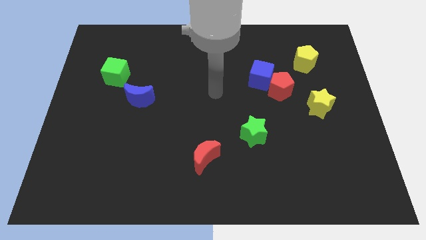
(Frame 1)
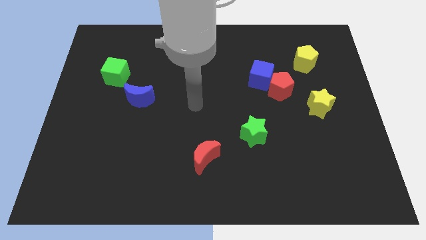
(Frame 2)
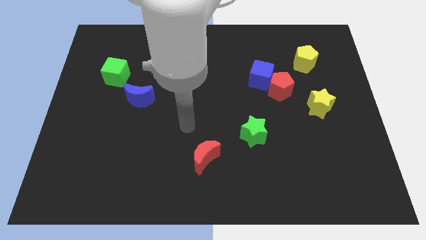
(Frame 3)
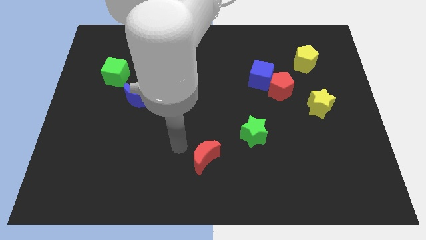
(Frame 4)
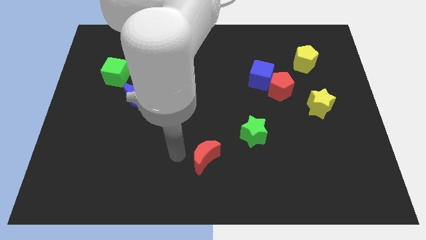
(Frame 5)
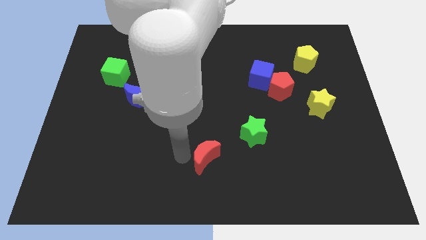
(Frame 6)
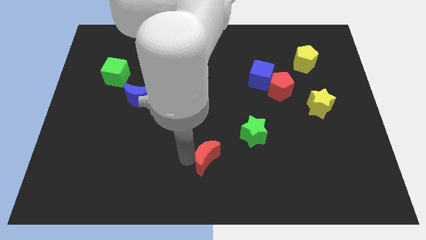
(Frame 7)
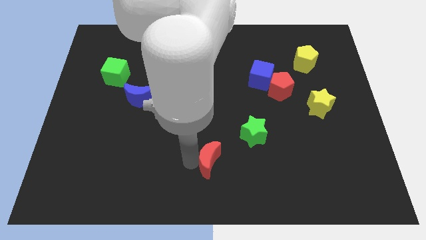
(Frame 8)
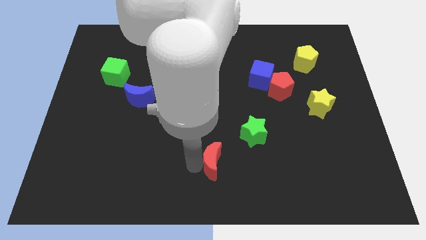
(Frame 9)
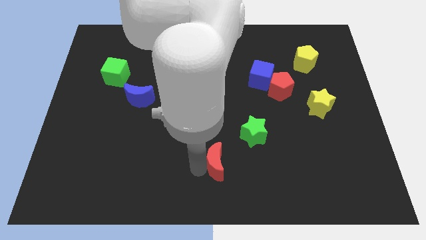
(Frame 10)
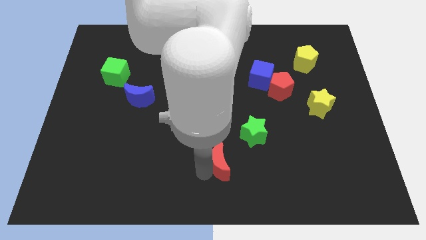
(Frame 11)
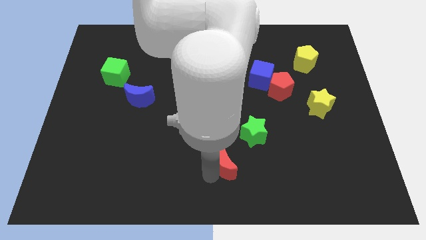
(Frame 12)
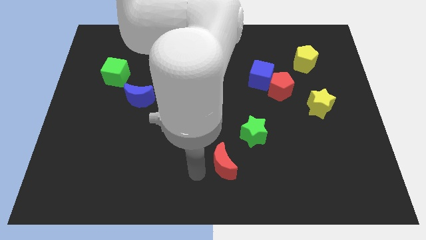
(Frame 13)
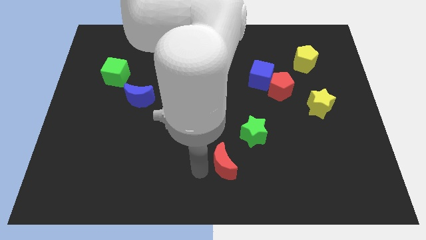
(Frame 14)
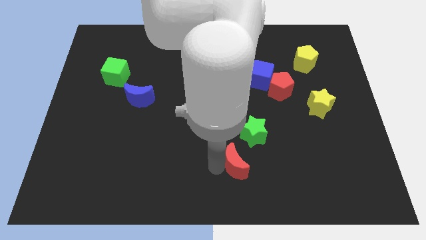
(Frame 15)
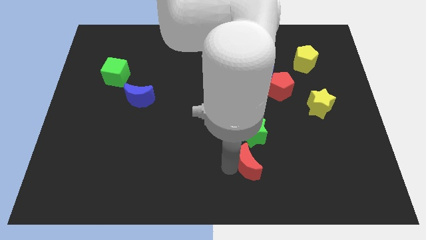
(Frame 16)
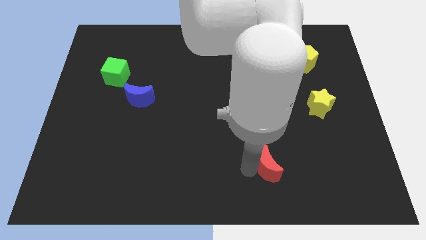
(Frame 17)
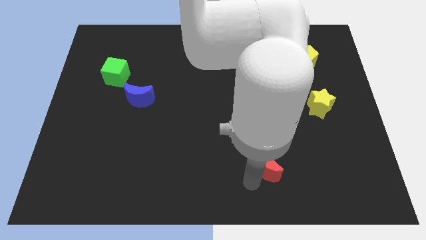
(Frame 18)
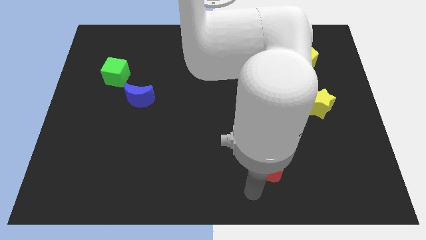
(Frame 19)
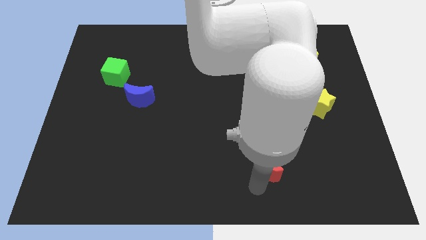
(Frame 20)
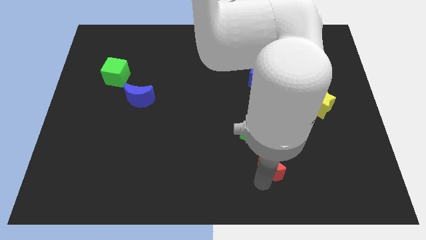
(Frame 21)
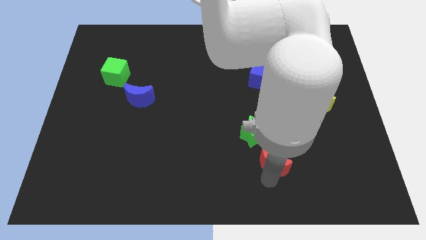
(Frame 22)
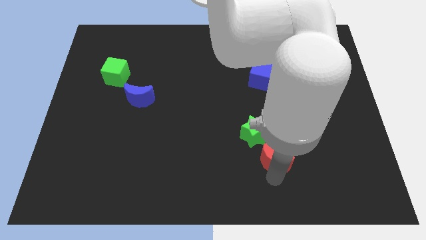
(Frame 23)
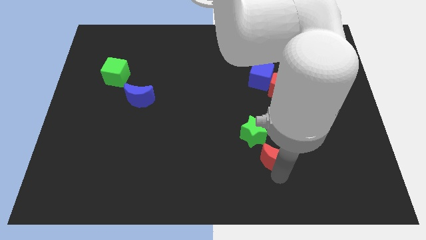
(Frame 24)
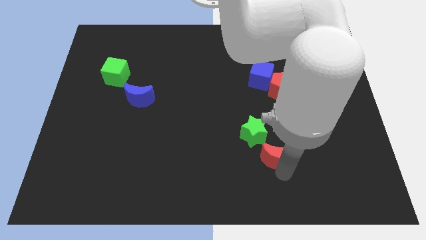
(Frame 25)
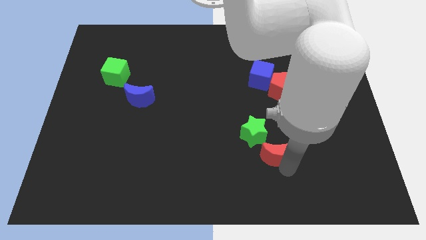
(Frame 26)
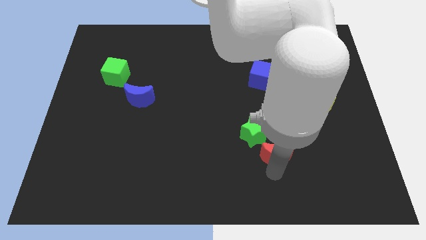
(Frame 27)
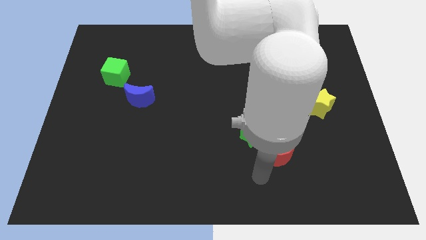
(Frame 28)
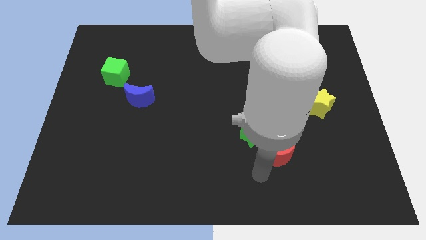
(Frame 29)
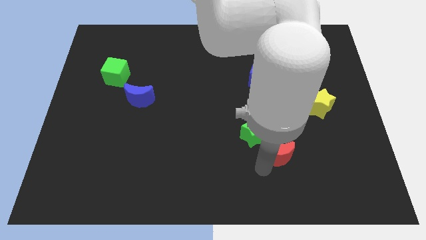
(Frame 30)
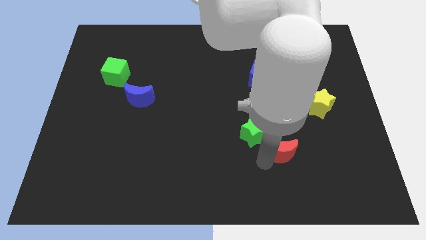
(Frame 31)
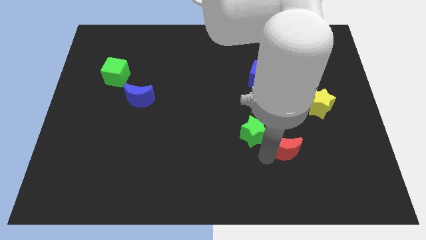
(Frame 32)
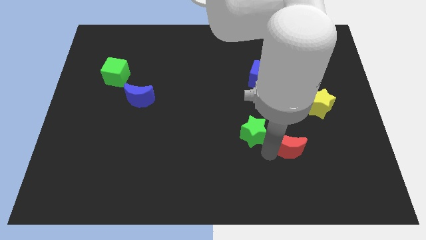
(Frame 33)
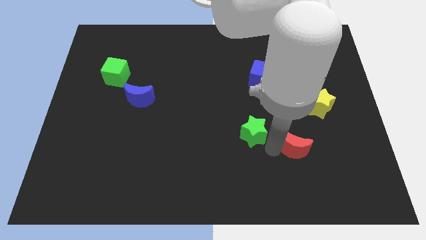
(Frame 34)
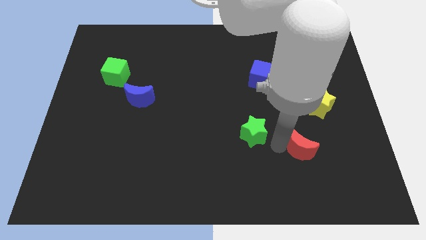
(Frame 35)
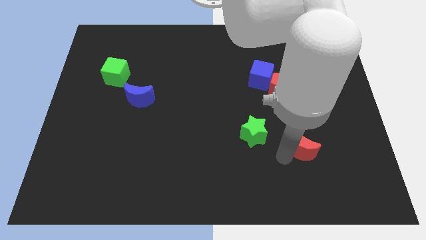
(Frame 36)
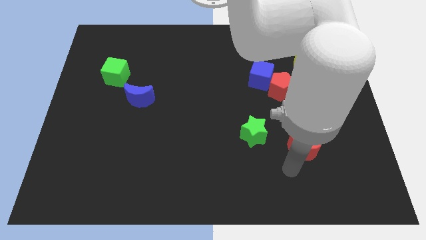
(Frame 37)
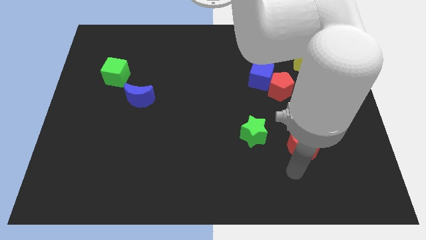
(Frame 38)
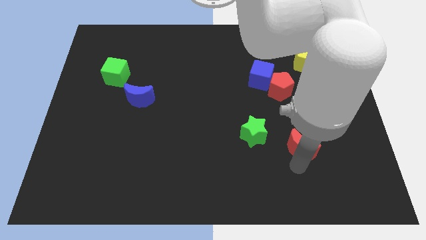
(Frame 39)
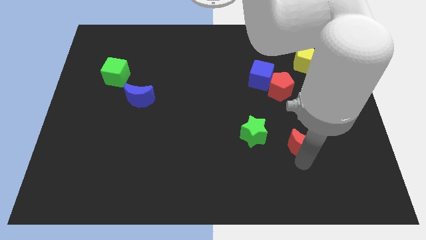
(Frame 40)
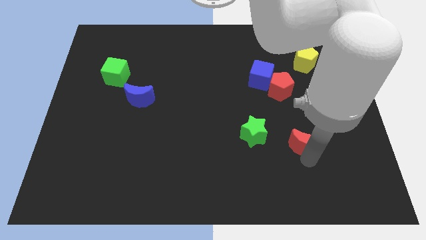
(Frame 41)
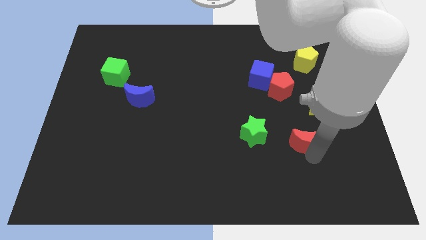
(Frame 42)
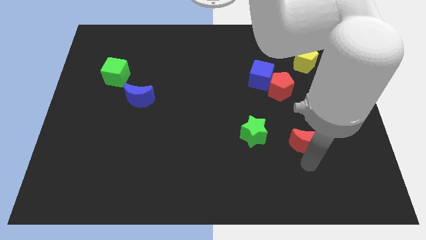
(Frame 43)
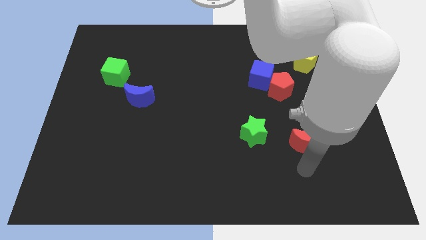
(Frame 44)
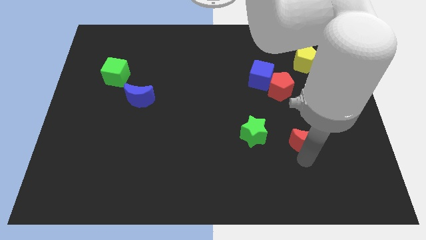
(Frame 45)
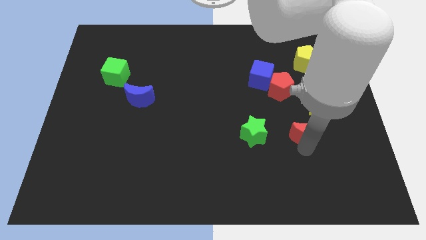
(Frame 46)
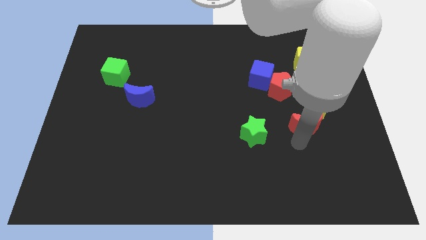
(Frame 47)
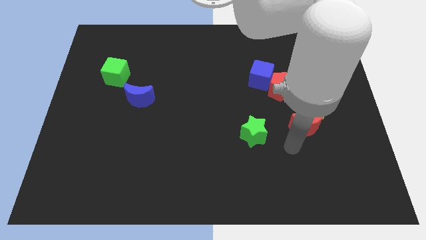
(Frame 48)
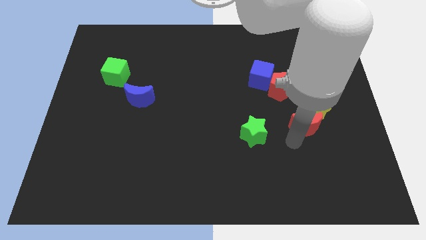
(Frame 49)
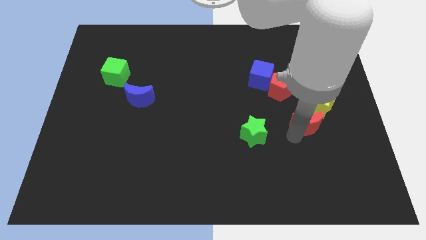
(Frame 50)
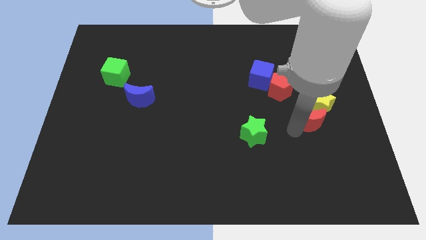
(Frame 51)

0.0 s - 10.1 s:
slide the red moon close to the yellow star

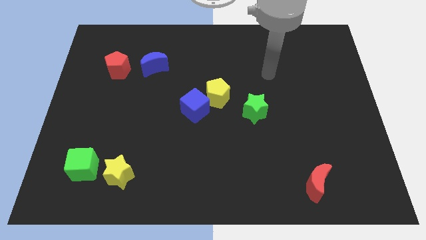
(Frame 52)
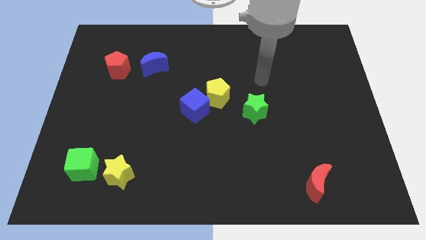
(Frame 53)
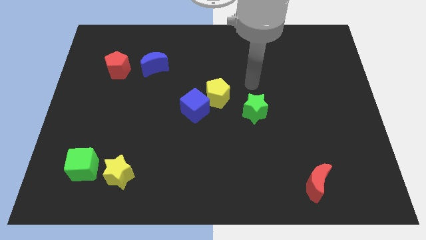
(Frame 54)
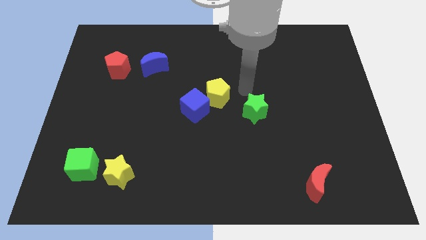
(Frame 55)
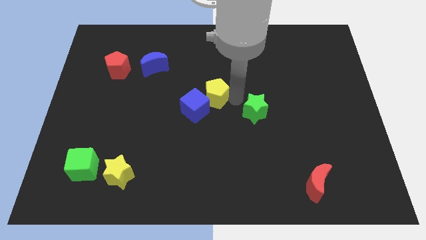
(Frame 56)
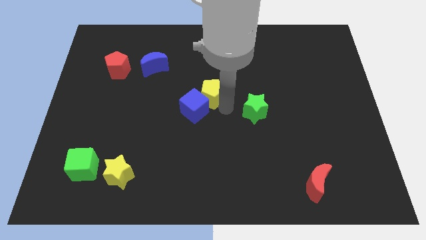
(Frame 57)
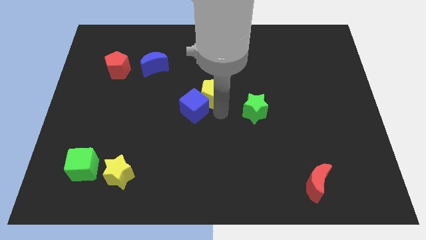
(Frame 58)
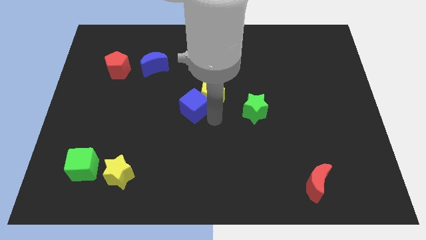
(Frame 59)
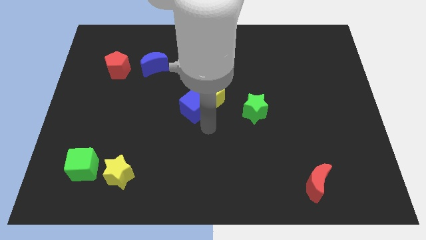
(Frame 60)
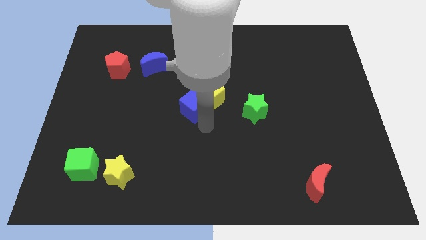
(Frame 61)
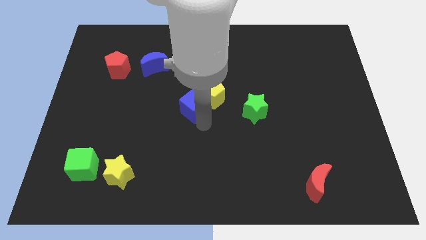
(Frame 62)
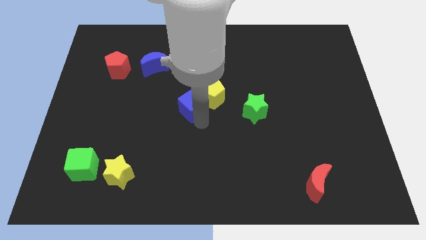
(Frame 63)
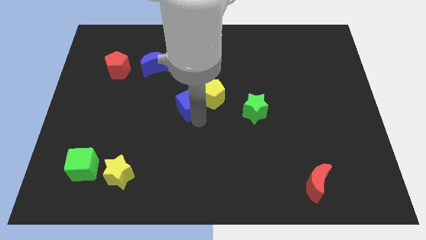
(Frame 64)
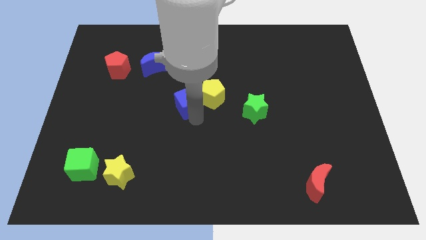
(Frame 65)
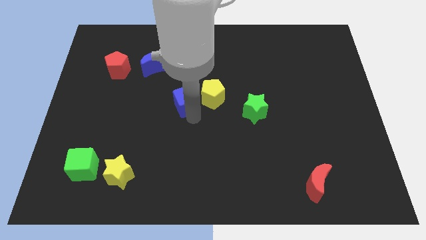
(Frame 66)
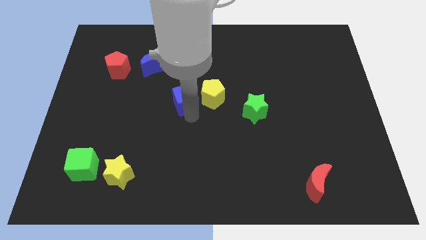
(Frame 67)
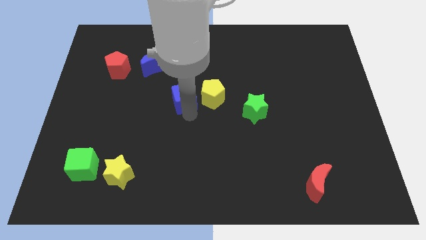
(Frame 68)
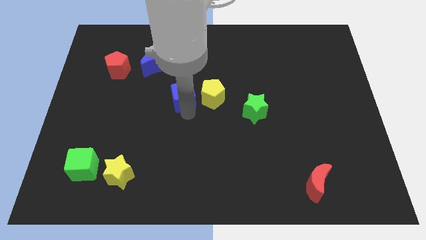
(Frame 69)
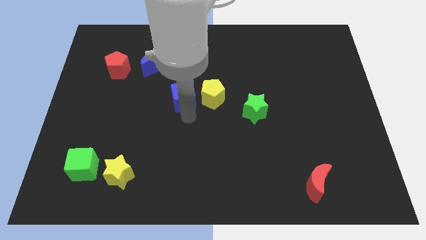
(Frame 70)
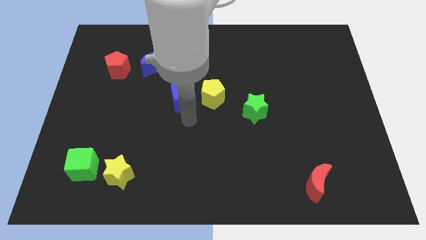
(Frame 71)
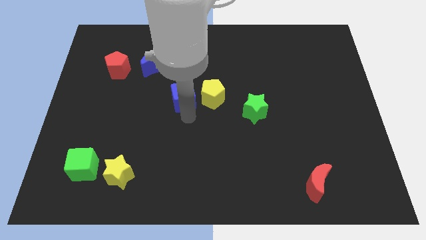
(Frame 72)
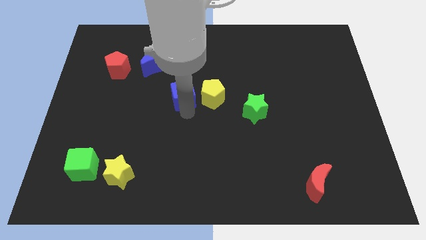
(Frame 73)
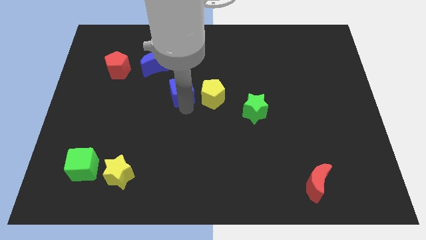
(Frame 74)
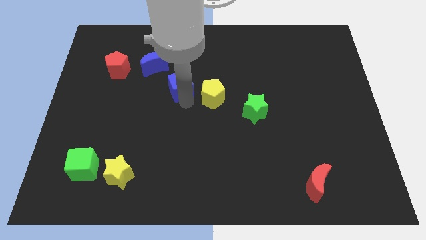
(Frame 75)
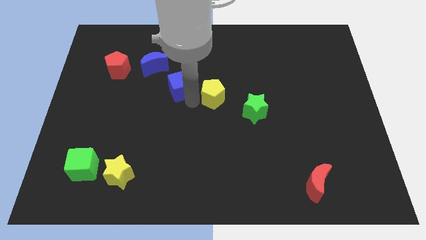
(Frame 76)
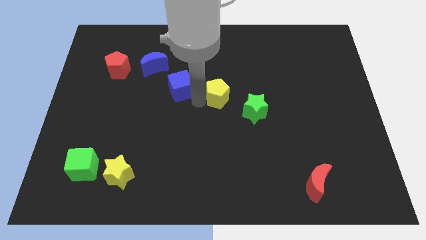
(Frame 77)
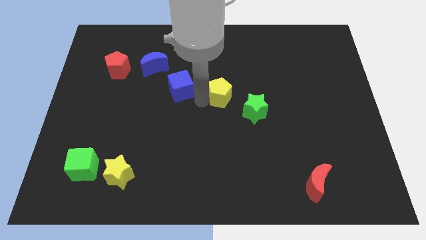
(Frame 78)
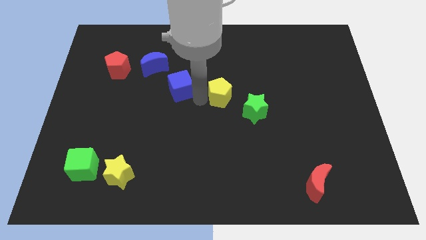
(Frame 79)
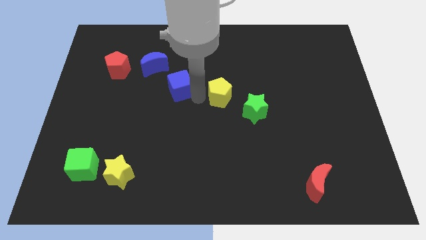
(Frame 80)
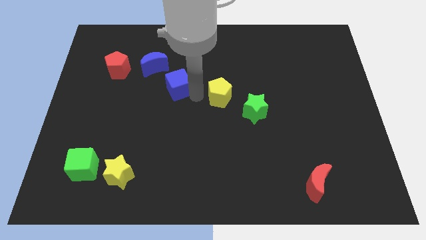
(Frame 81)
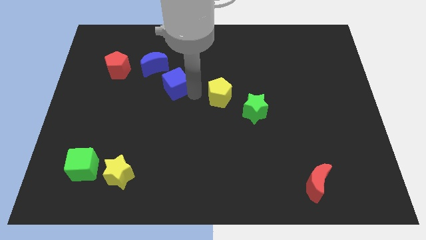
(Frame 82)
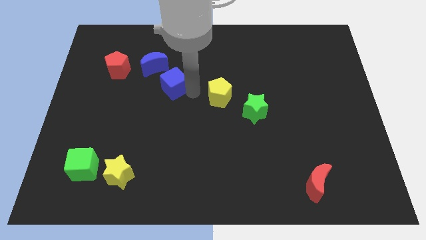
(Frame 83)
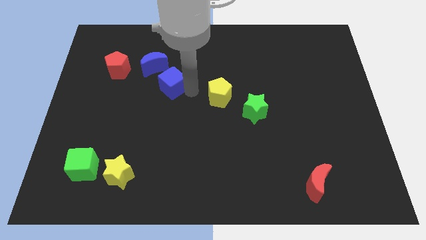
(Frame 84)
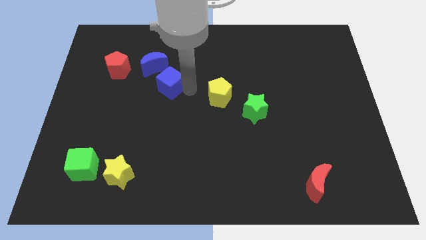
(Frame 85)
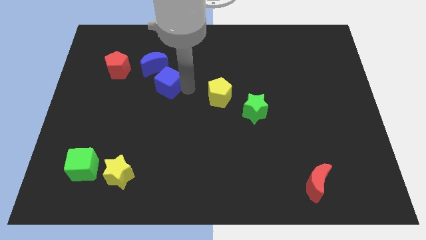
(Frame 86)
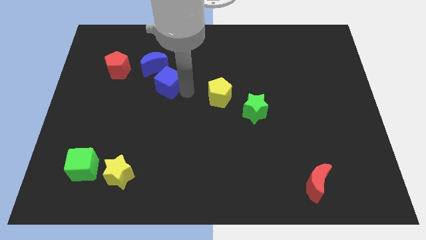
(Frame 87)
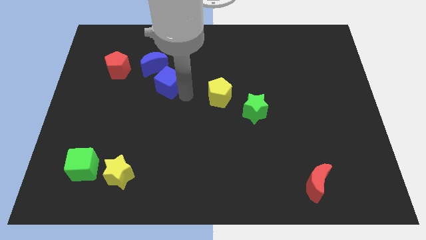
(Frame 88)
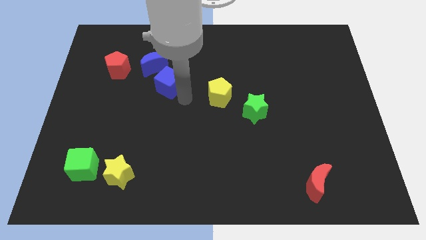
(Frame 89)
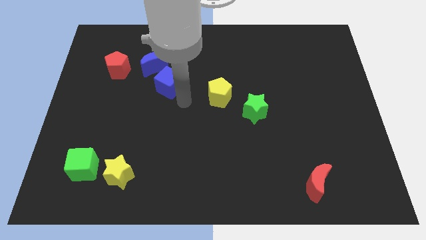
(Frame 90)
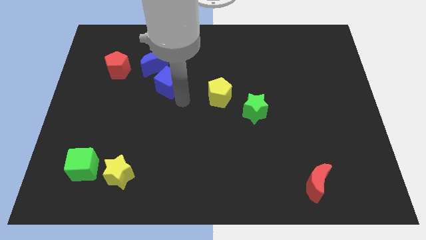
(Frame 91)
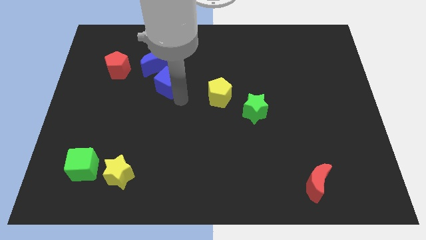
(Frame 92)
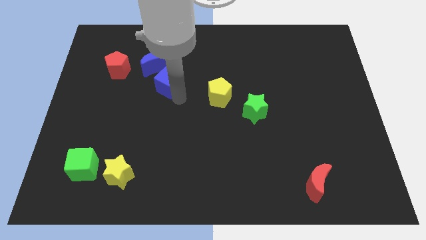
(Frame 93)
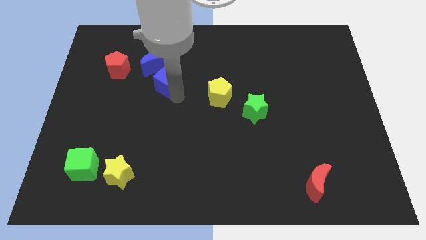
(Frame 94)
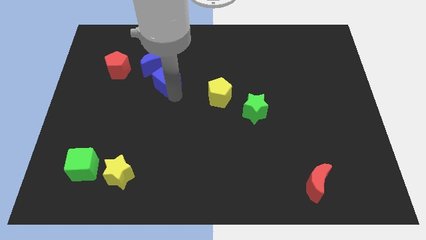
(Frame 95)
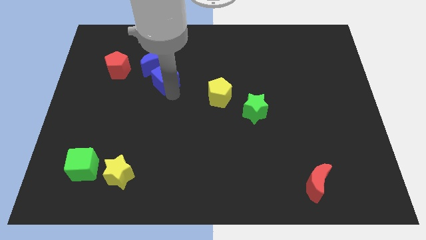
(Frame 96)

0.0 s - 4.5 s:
slide the blue cube close to the blue moon
